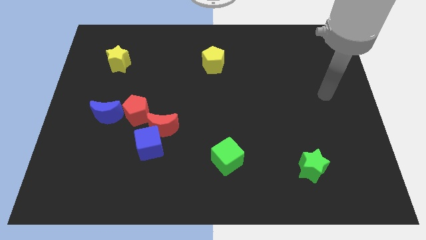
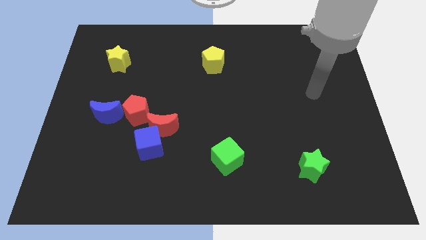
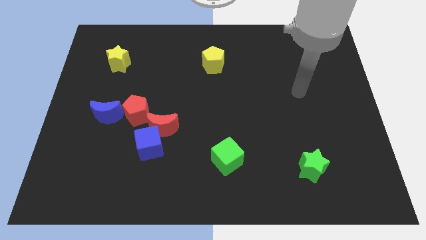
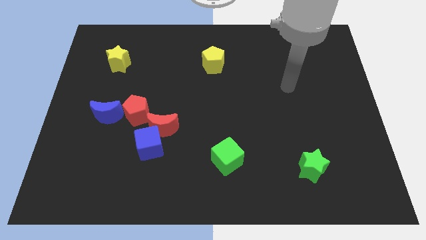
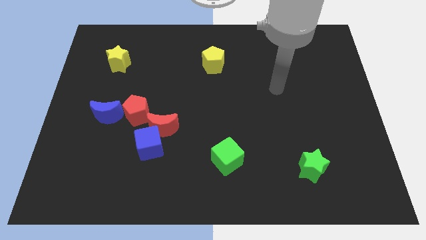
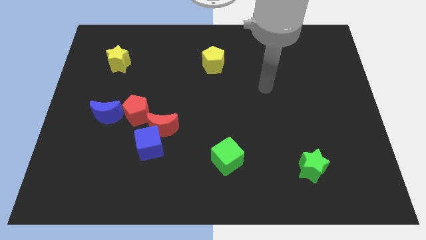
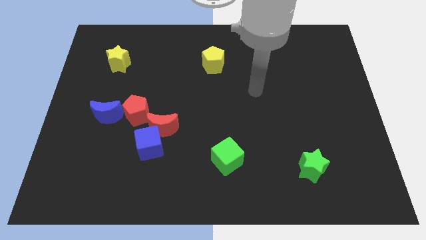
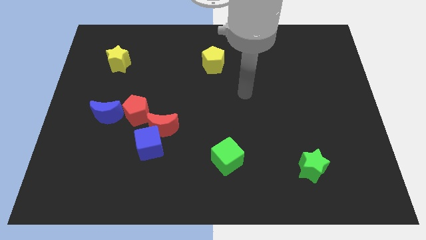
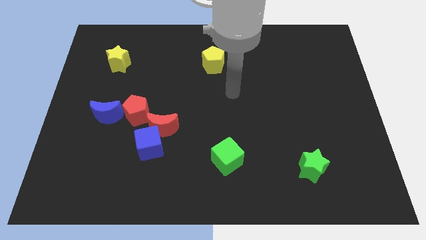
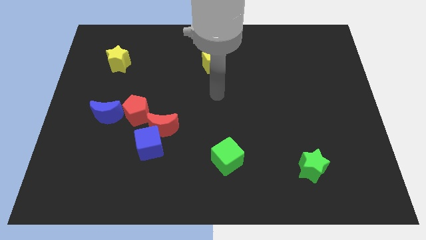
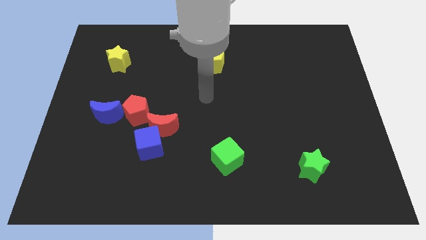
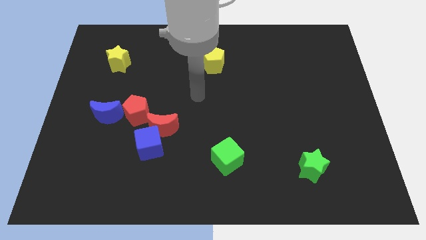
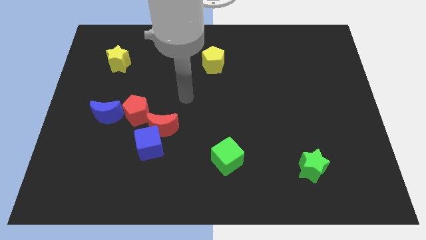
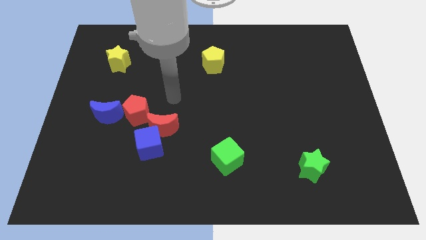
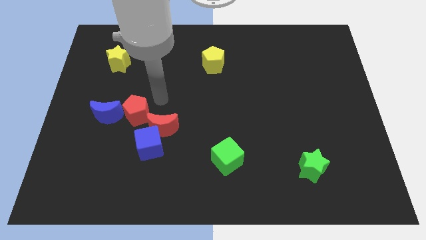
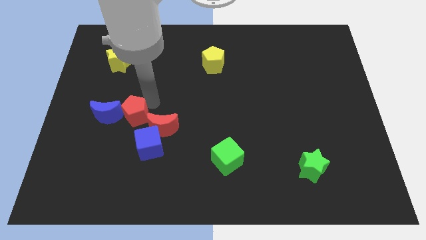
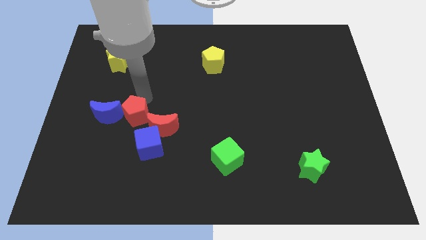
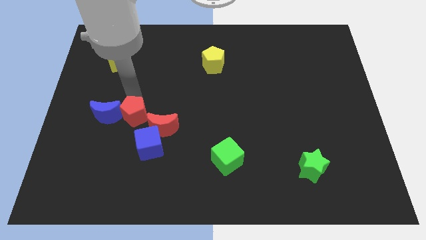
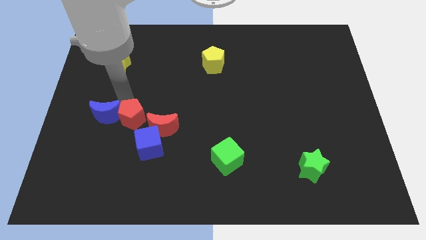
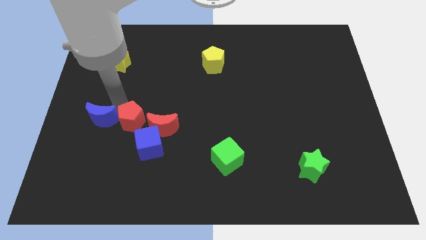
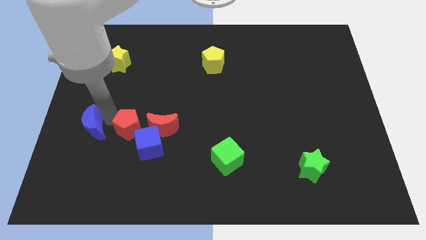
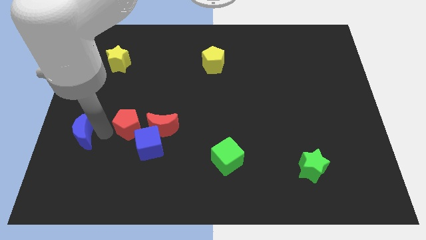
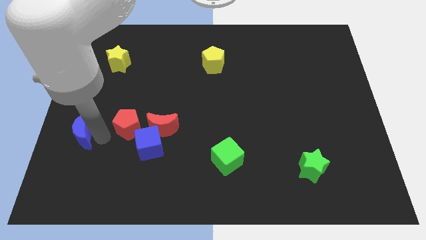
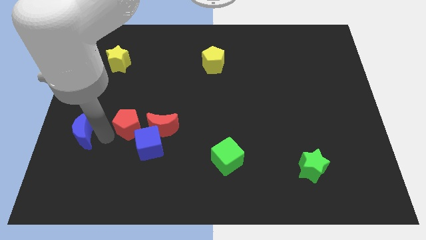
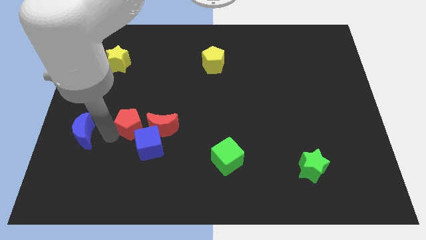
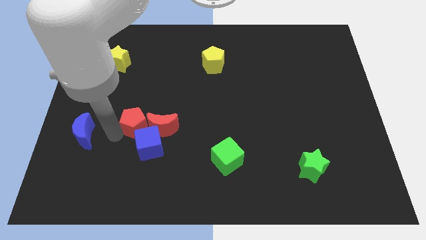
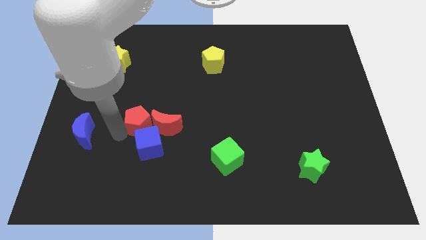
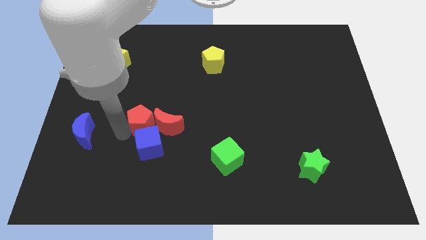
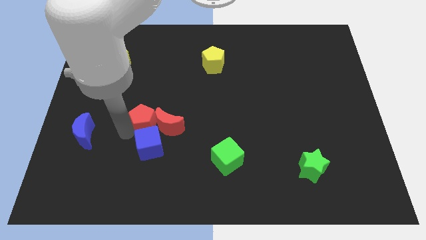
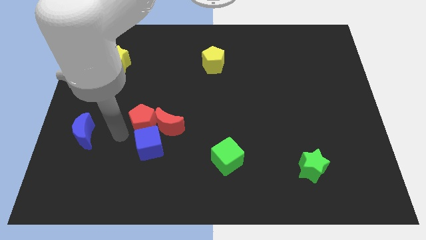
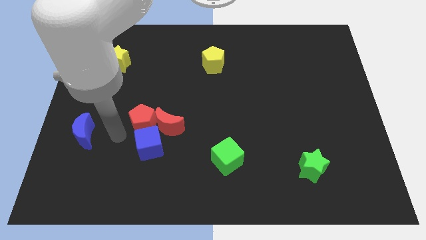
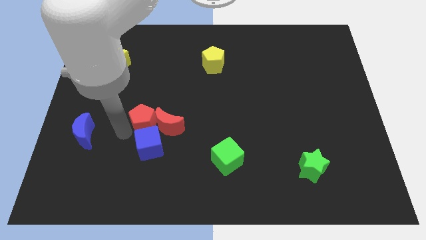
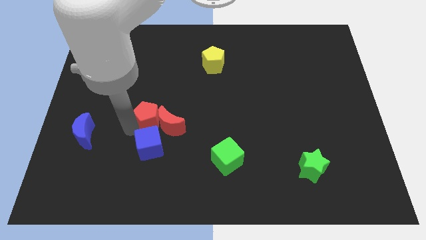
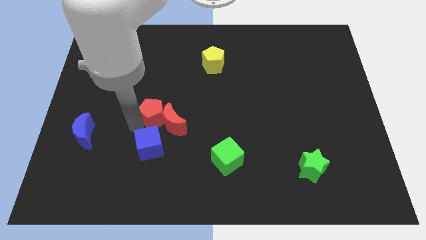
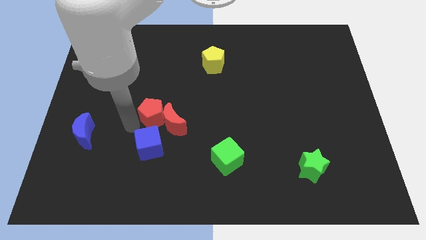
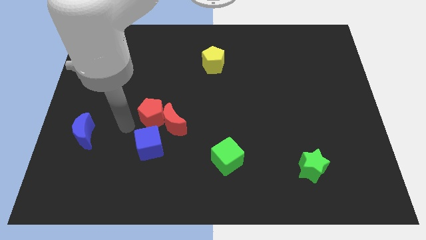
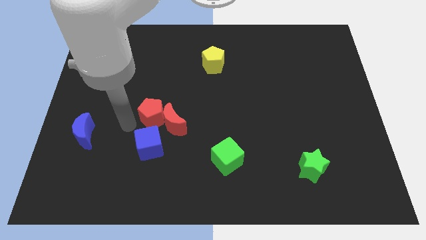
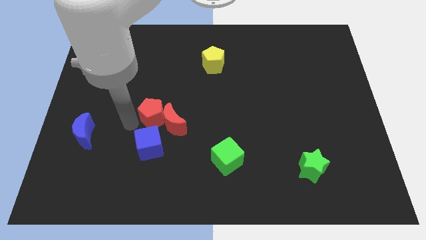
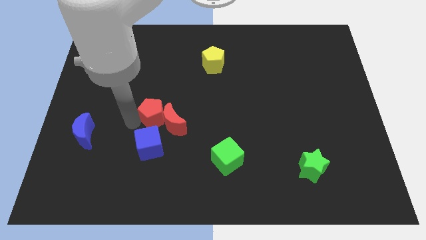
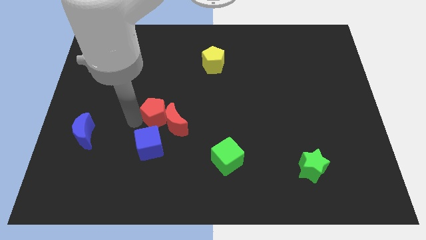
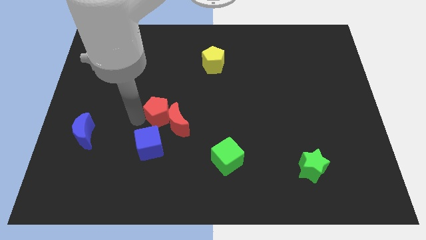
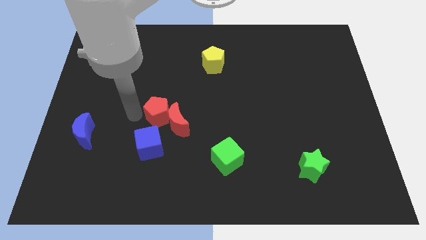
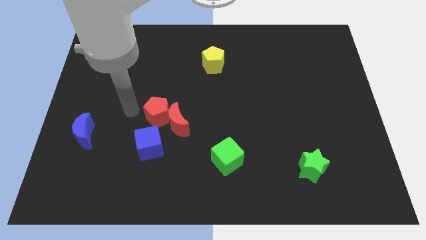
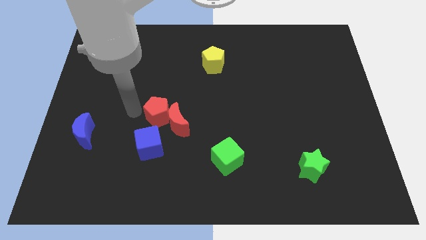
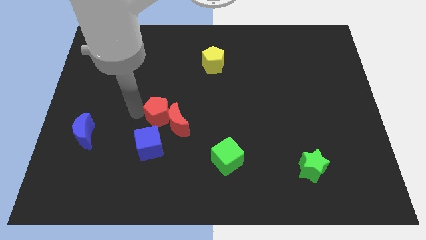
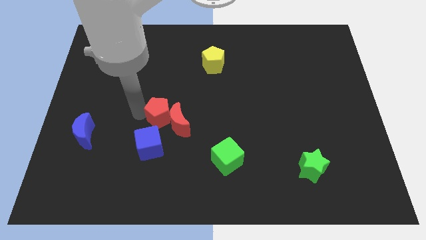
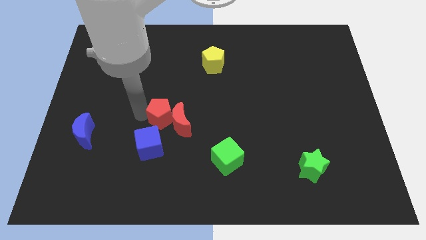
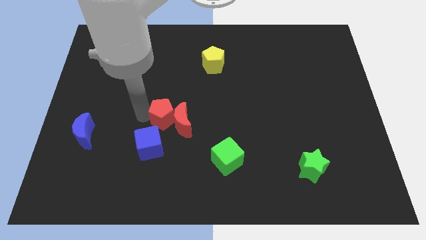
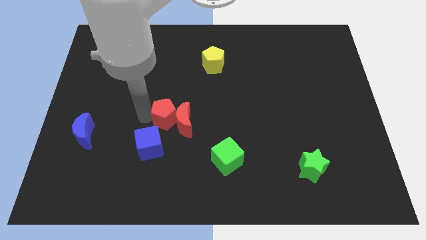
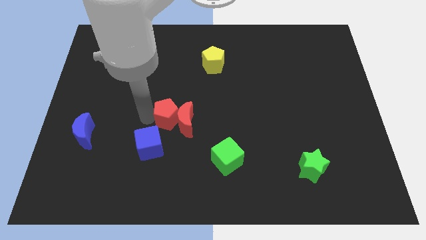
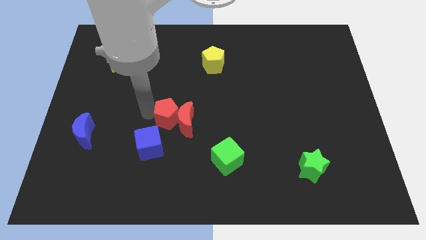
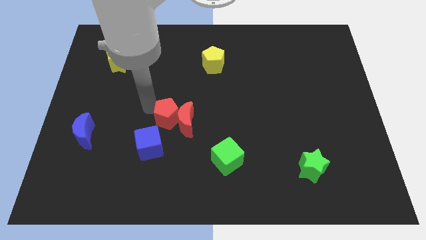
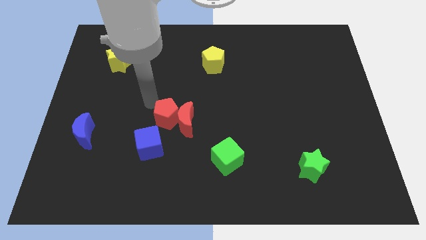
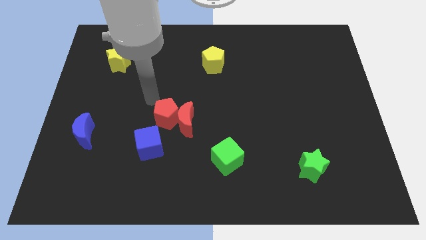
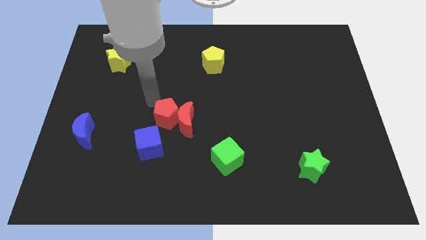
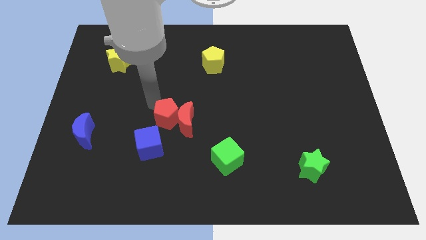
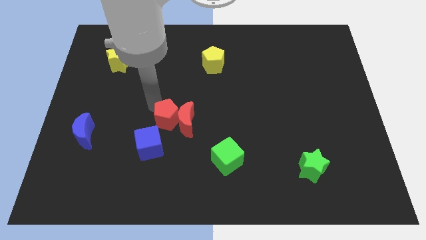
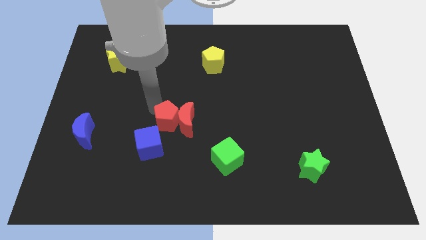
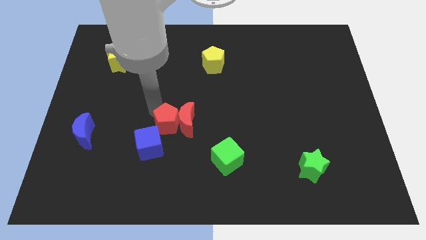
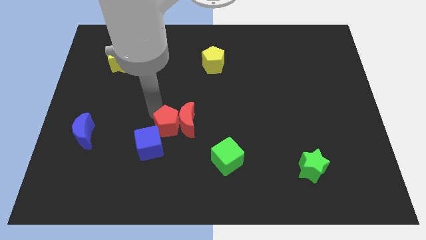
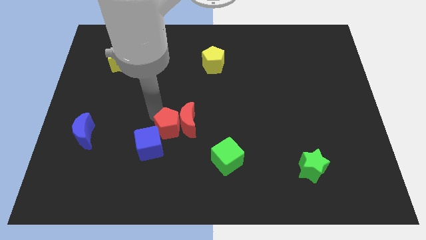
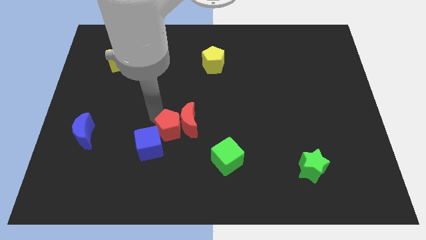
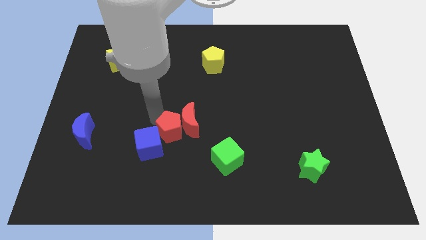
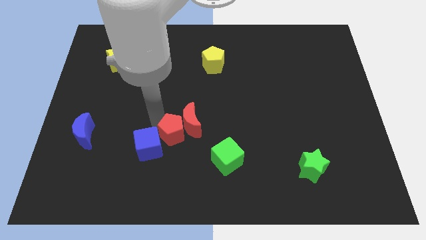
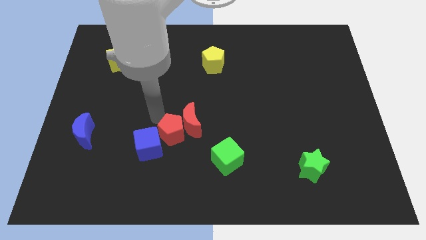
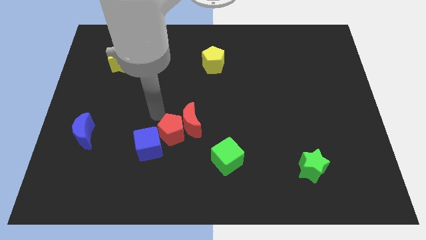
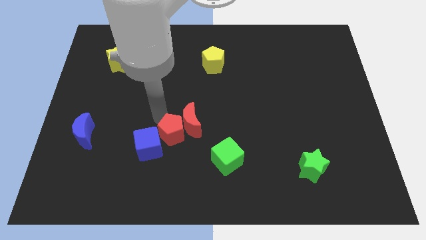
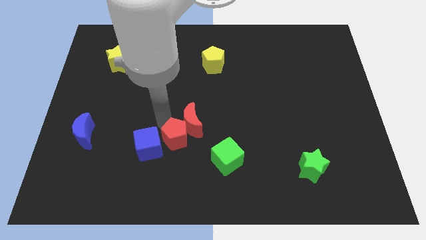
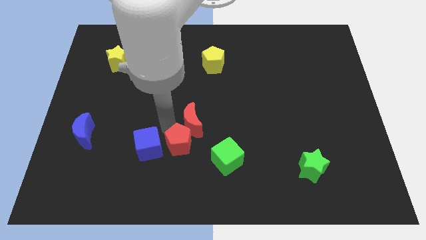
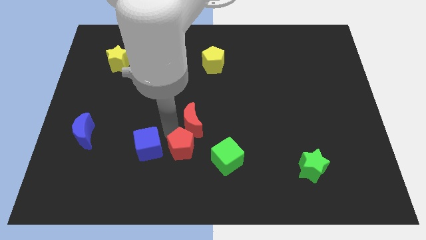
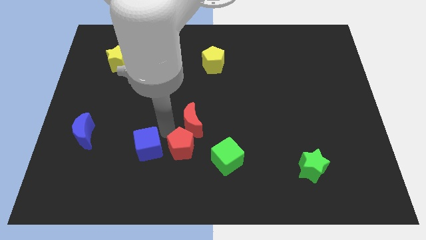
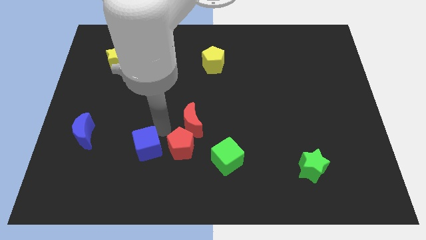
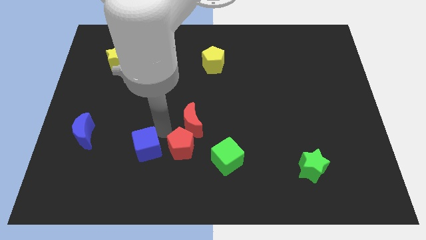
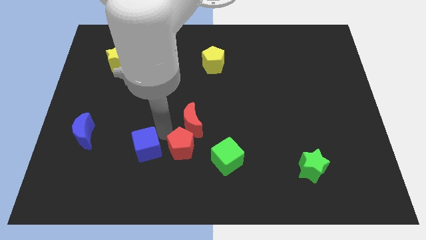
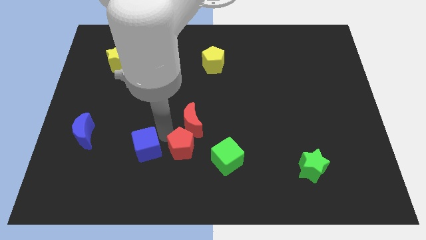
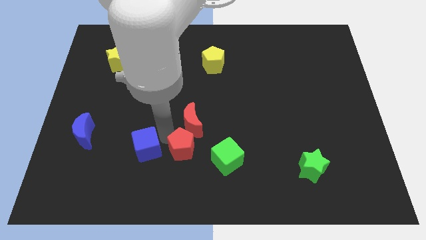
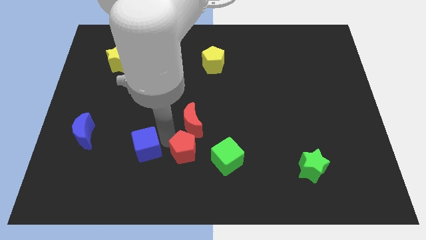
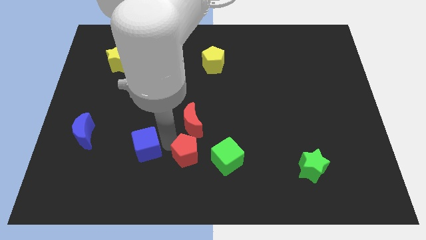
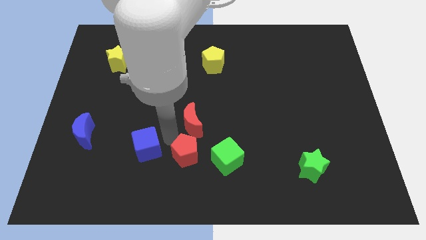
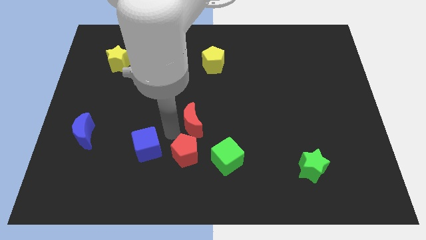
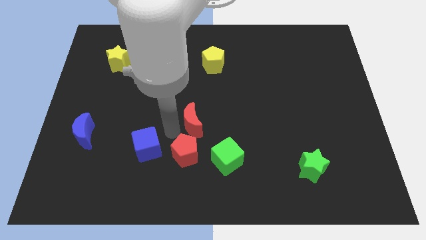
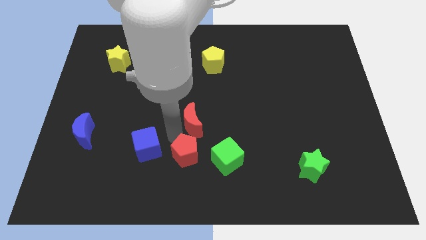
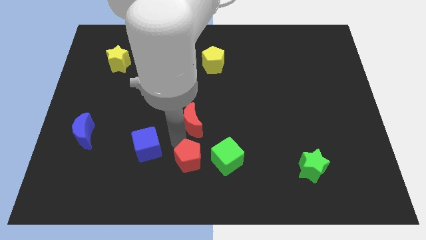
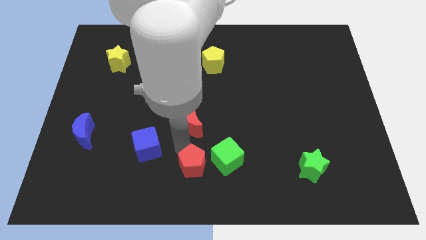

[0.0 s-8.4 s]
slide the red pentagon diagonally down and to the left of the green cube
